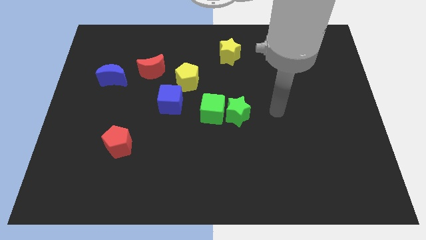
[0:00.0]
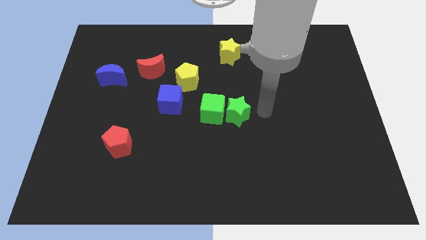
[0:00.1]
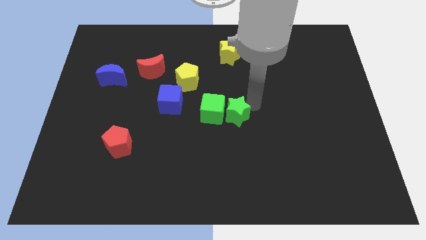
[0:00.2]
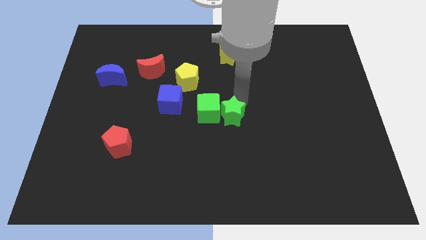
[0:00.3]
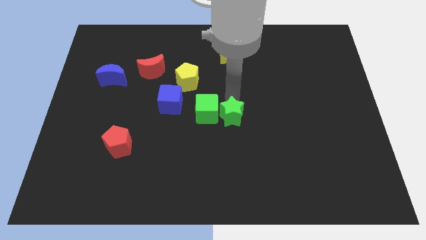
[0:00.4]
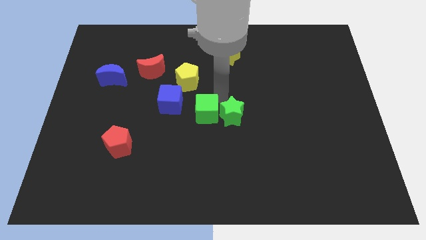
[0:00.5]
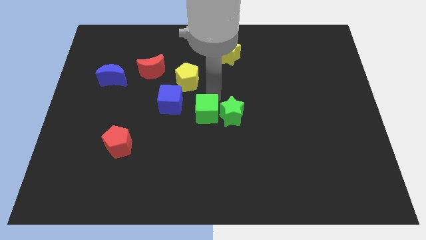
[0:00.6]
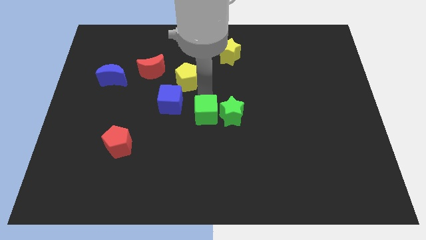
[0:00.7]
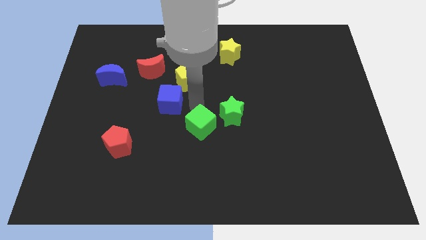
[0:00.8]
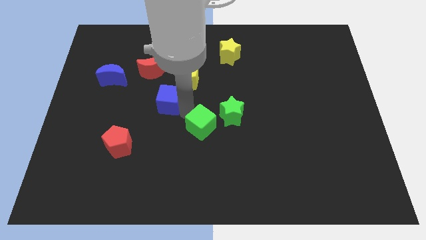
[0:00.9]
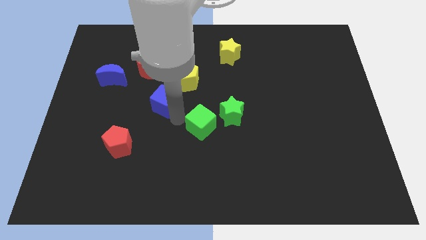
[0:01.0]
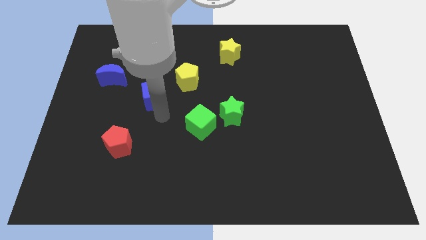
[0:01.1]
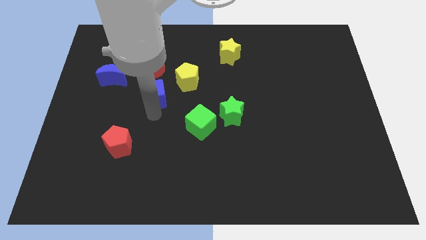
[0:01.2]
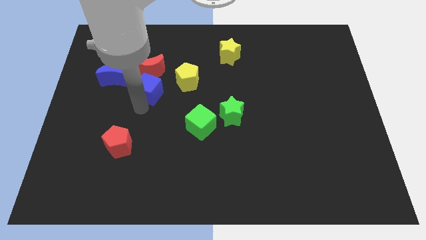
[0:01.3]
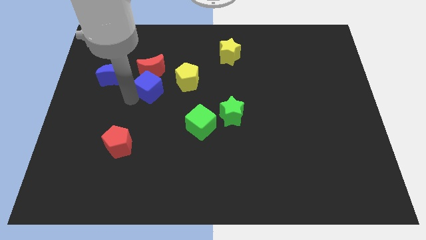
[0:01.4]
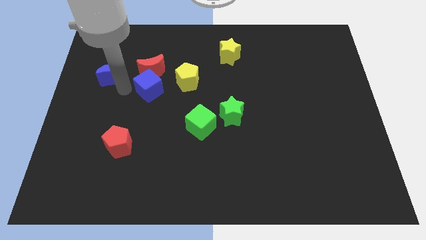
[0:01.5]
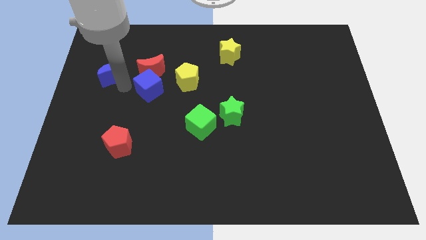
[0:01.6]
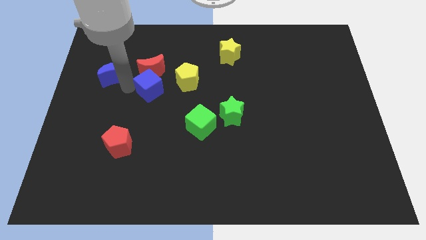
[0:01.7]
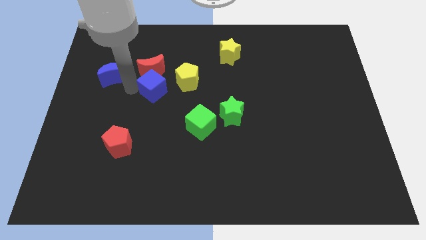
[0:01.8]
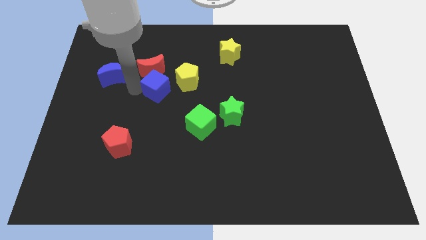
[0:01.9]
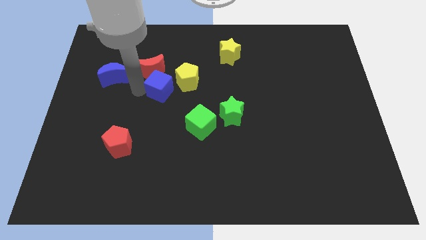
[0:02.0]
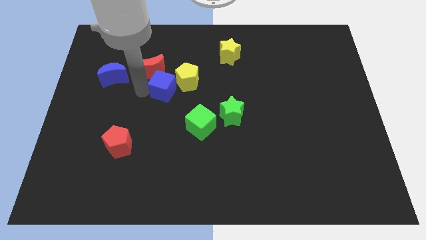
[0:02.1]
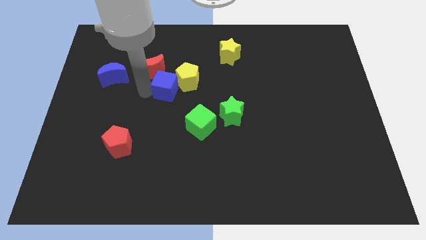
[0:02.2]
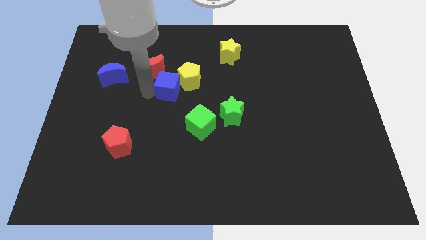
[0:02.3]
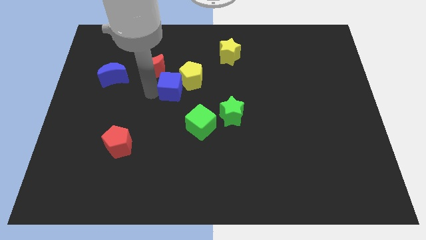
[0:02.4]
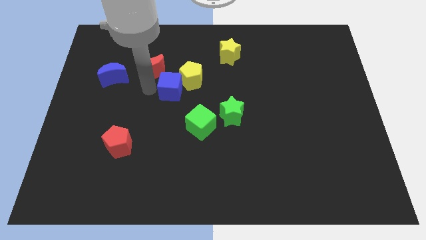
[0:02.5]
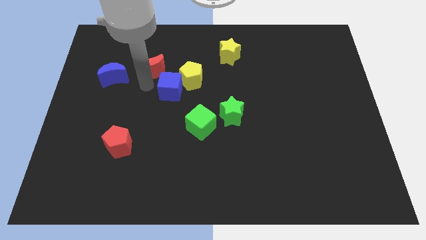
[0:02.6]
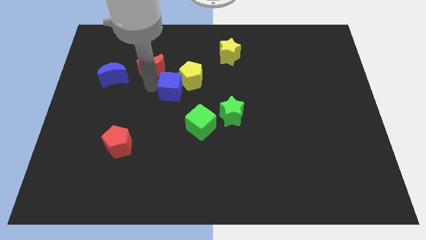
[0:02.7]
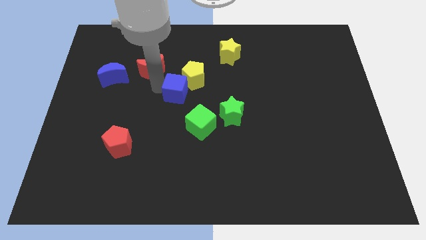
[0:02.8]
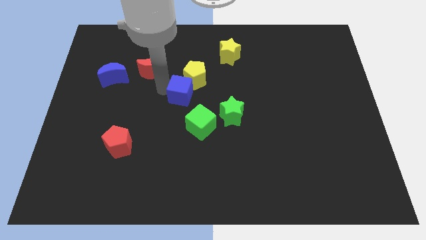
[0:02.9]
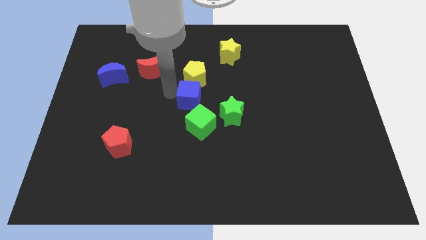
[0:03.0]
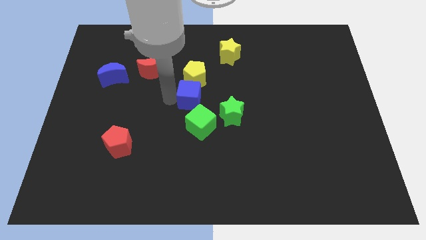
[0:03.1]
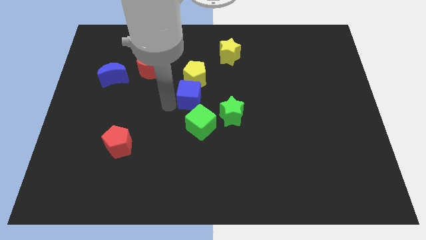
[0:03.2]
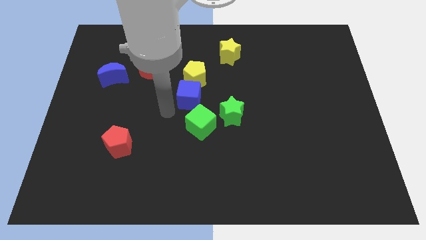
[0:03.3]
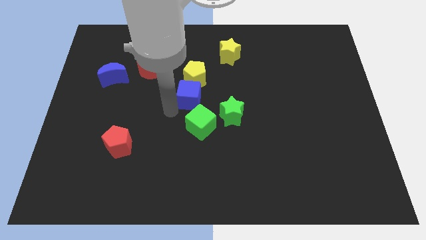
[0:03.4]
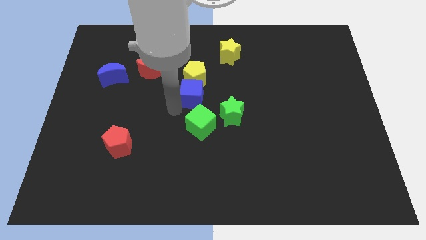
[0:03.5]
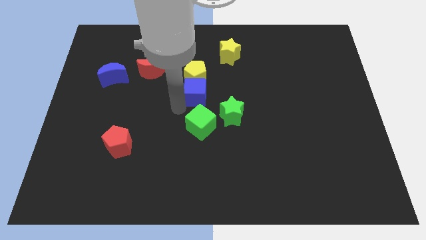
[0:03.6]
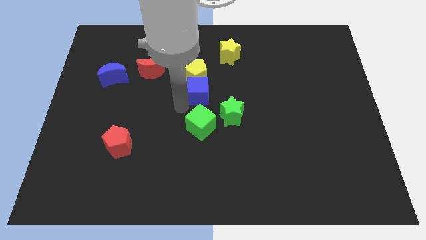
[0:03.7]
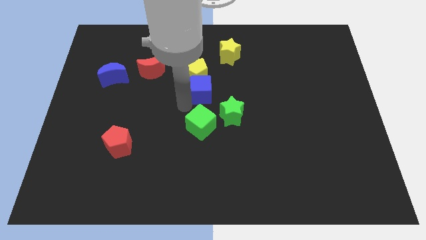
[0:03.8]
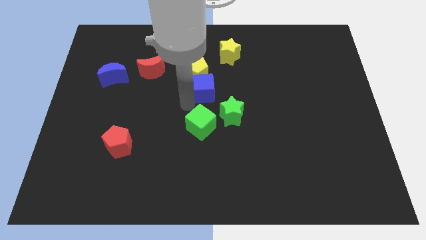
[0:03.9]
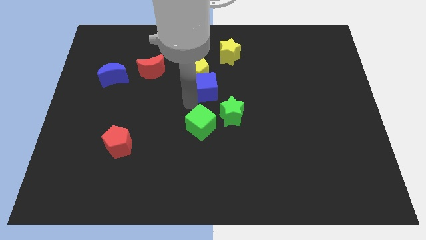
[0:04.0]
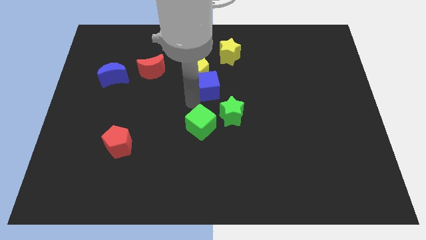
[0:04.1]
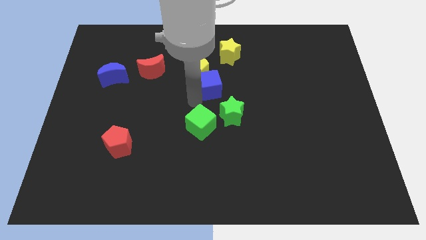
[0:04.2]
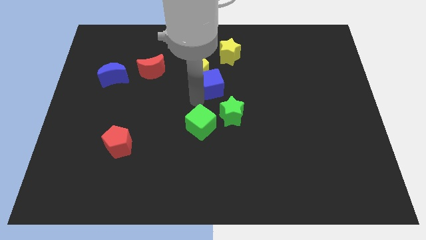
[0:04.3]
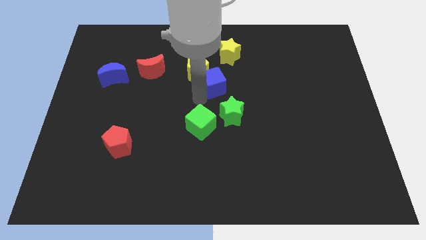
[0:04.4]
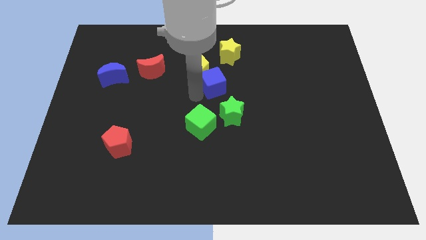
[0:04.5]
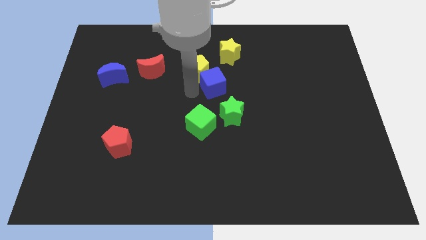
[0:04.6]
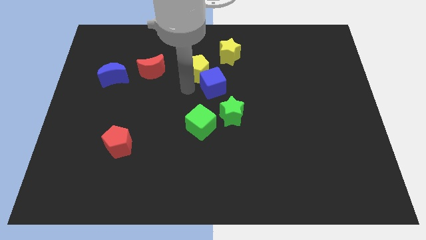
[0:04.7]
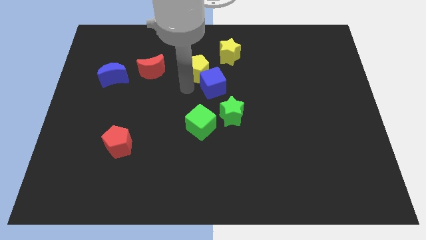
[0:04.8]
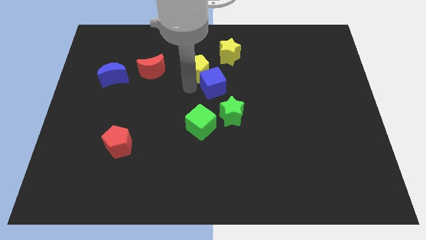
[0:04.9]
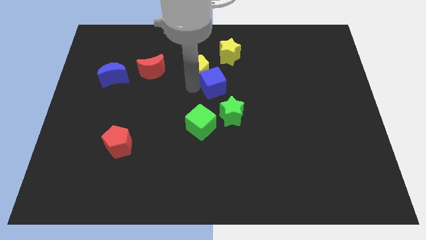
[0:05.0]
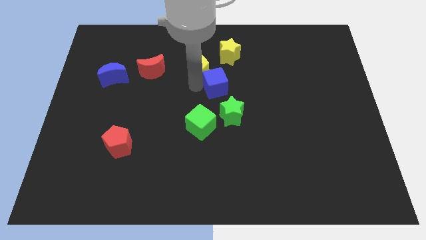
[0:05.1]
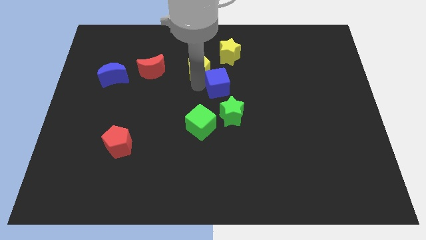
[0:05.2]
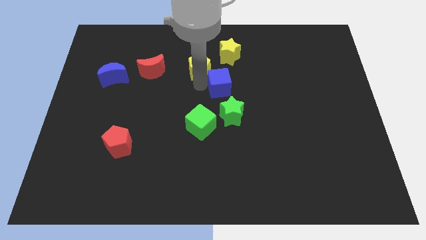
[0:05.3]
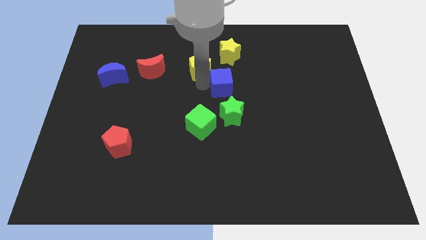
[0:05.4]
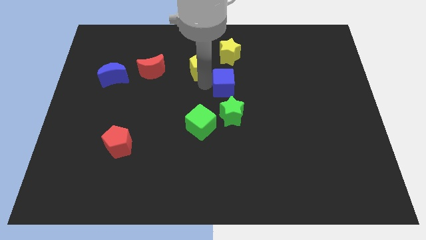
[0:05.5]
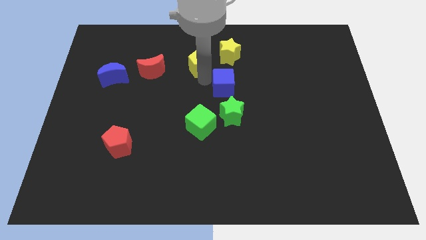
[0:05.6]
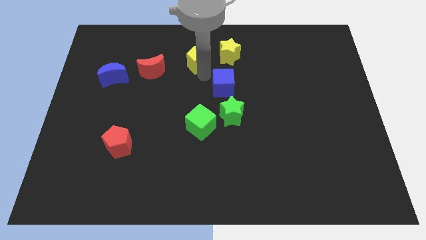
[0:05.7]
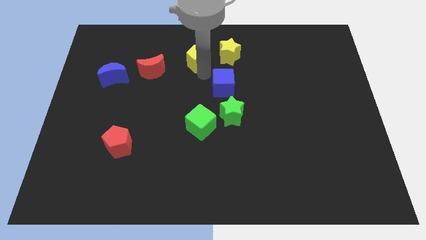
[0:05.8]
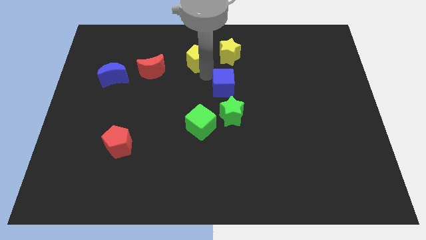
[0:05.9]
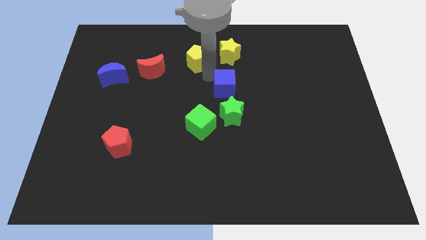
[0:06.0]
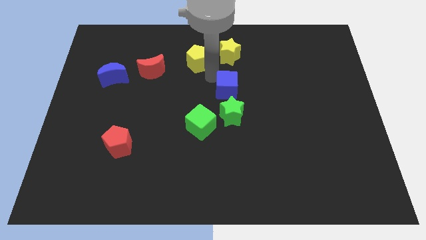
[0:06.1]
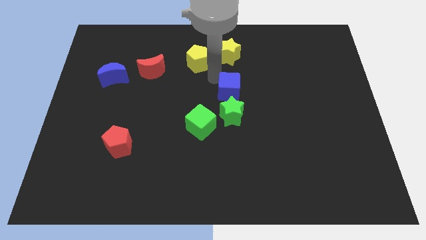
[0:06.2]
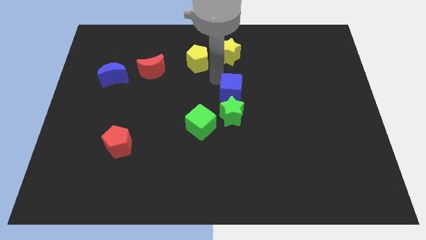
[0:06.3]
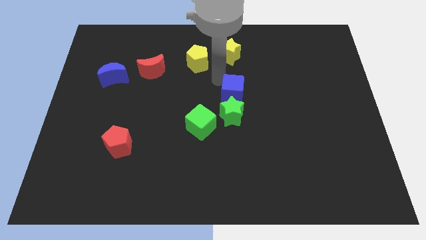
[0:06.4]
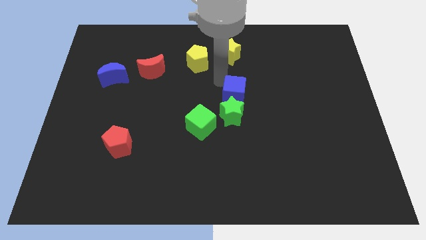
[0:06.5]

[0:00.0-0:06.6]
push the blue cube to the green star

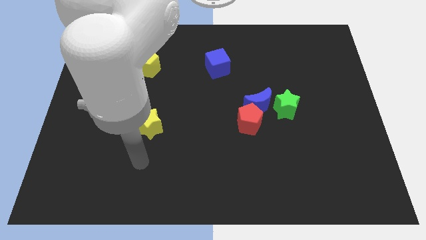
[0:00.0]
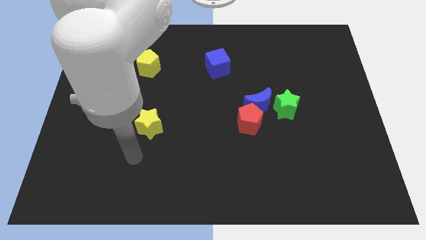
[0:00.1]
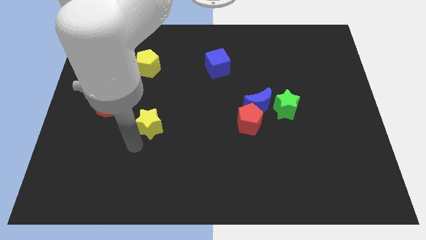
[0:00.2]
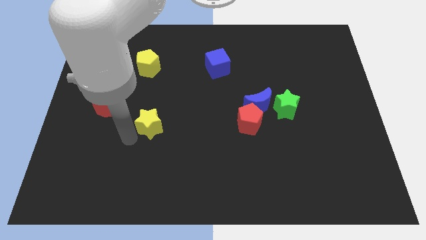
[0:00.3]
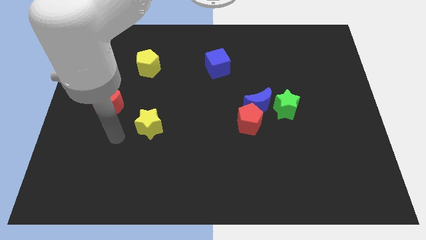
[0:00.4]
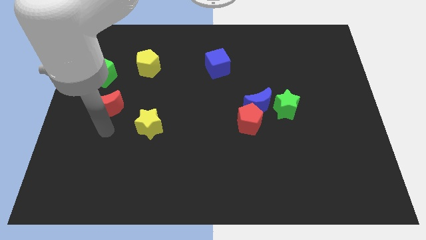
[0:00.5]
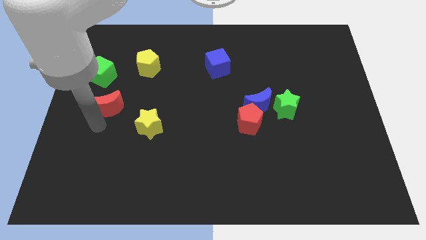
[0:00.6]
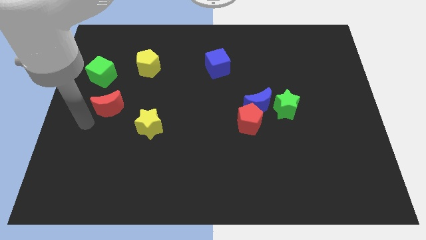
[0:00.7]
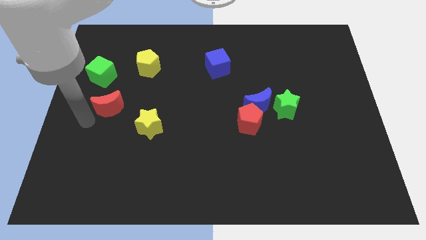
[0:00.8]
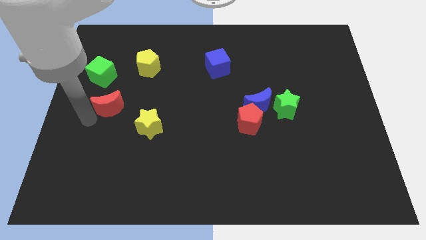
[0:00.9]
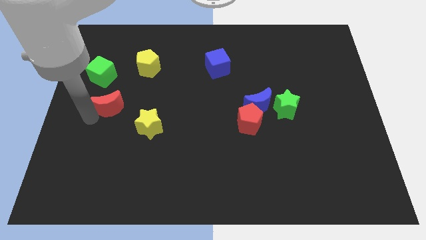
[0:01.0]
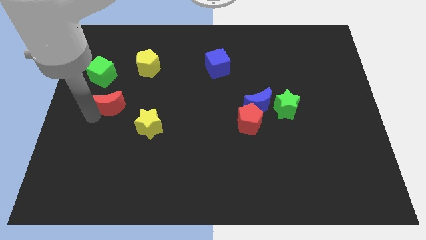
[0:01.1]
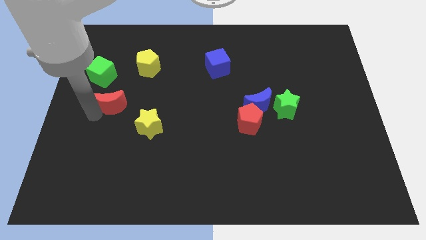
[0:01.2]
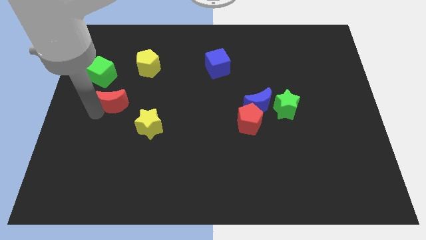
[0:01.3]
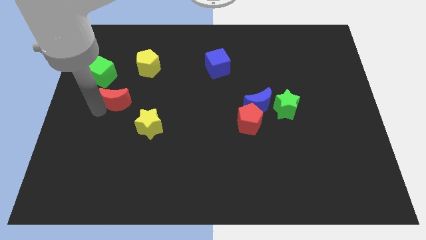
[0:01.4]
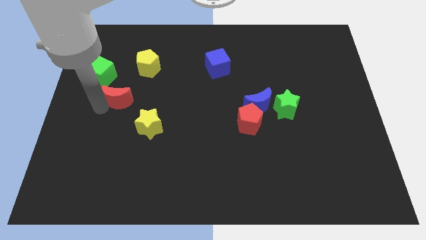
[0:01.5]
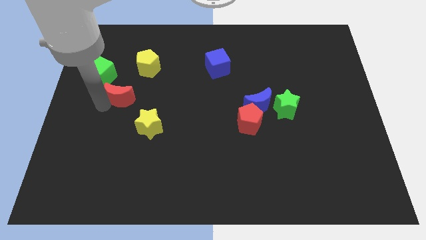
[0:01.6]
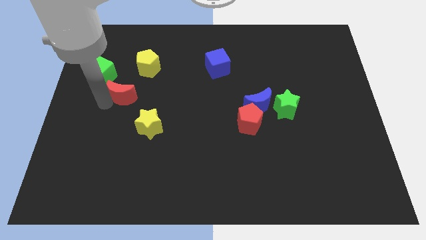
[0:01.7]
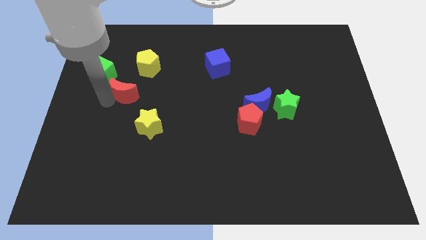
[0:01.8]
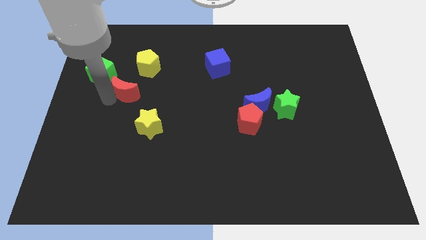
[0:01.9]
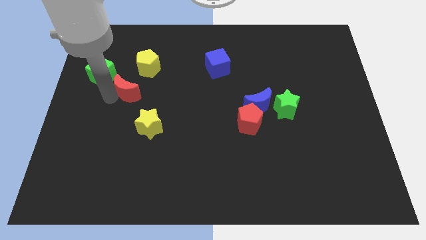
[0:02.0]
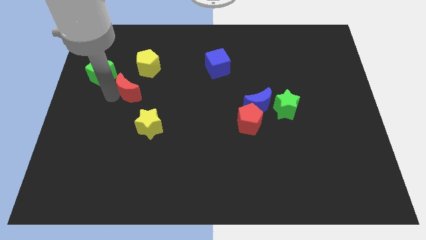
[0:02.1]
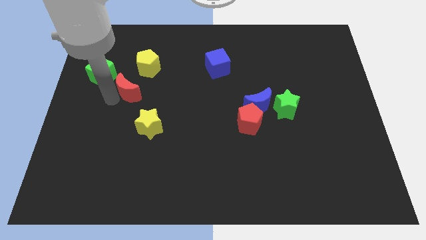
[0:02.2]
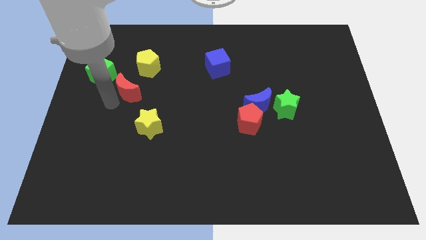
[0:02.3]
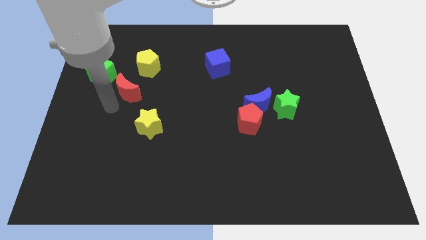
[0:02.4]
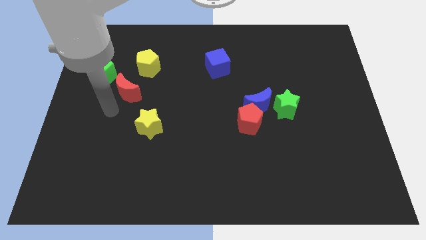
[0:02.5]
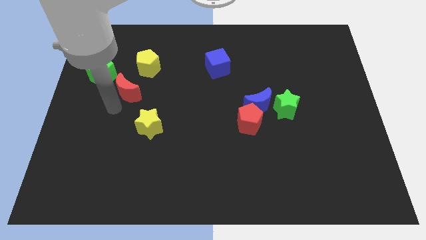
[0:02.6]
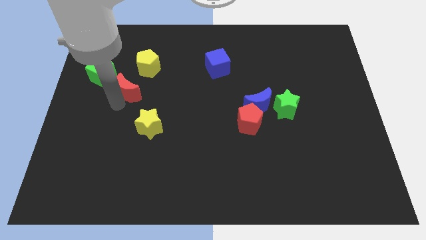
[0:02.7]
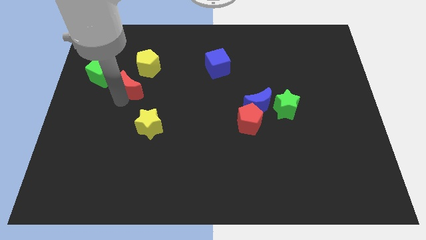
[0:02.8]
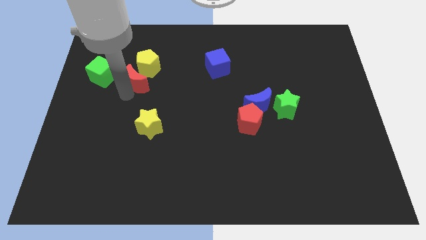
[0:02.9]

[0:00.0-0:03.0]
push the red moon towards the yellow pentagon
